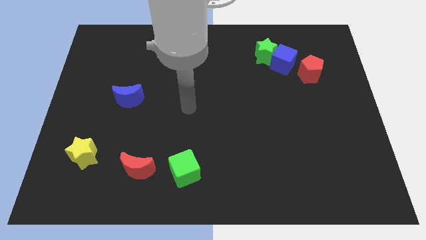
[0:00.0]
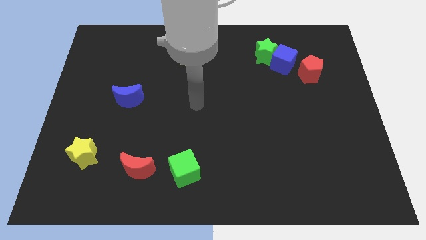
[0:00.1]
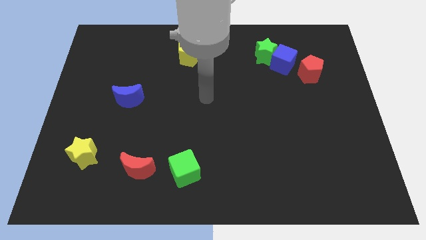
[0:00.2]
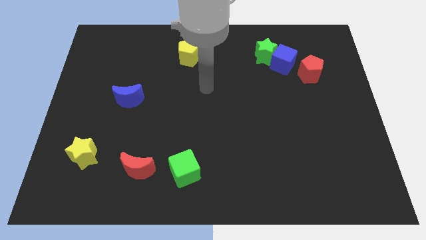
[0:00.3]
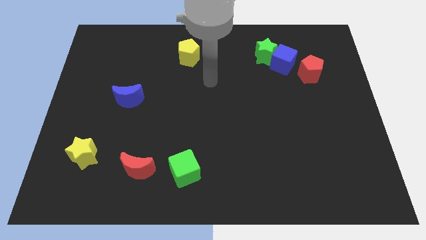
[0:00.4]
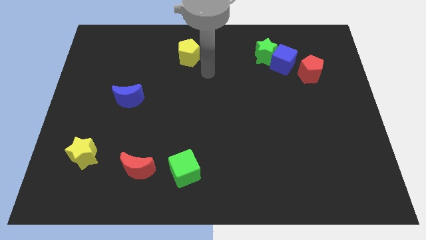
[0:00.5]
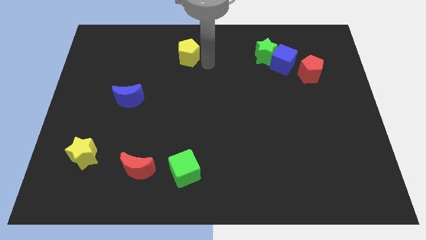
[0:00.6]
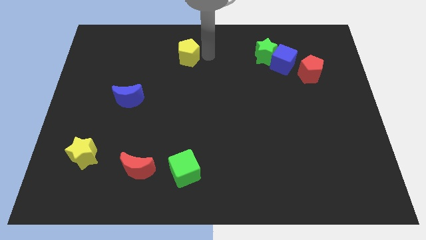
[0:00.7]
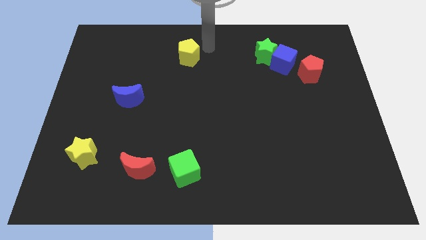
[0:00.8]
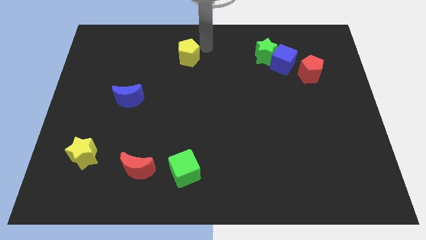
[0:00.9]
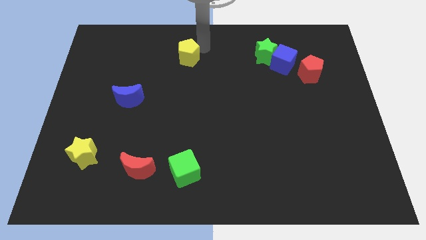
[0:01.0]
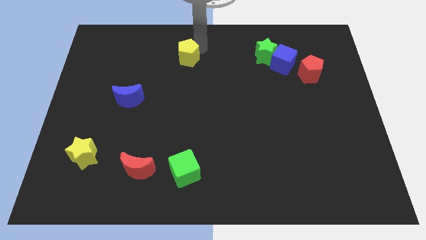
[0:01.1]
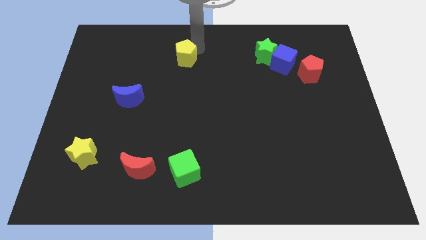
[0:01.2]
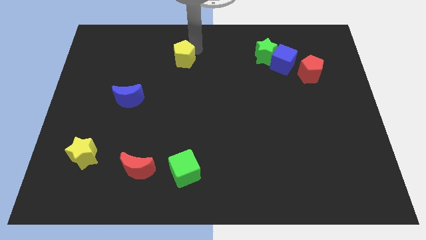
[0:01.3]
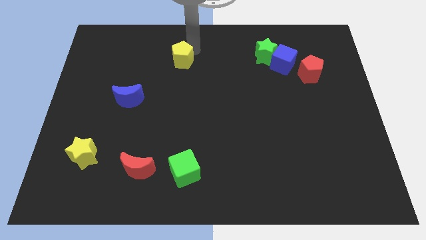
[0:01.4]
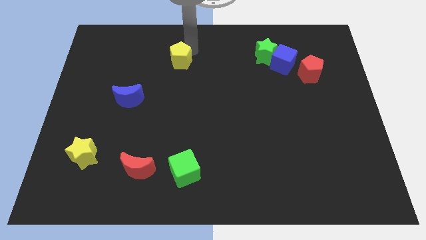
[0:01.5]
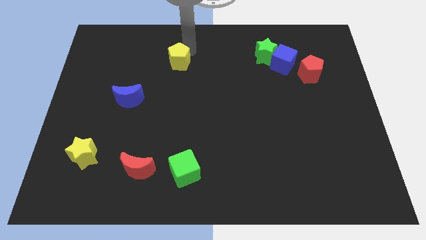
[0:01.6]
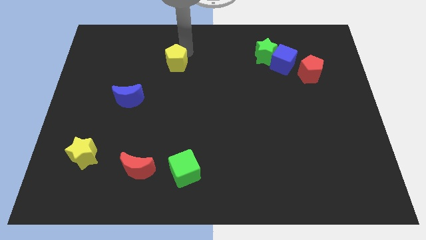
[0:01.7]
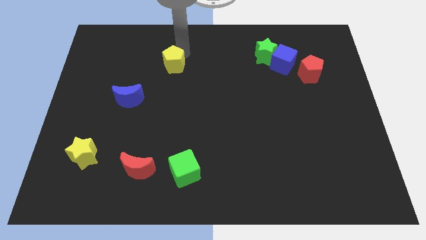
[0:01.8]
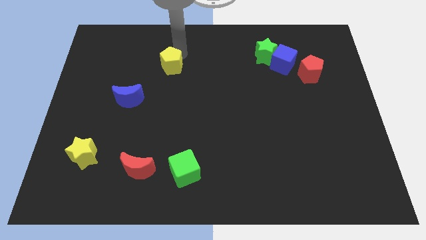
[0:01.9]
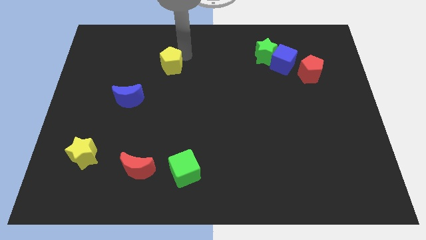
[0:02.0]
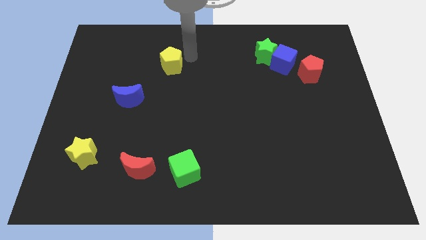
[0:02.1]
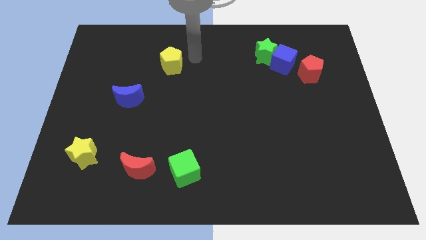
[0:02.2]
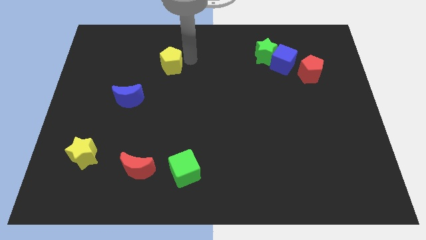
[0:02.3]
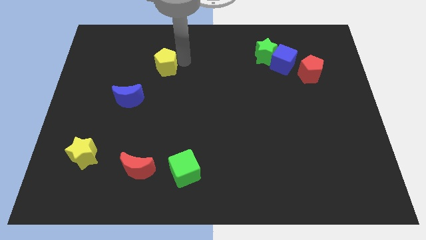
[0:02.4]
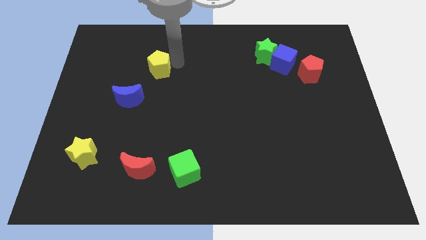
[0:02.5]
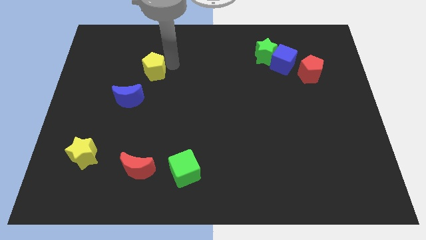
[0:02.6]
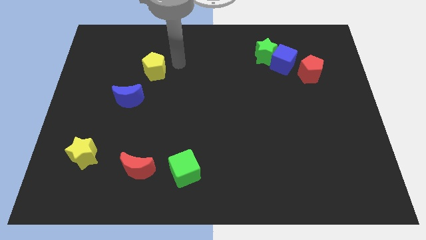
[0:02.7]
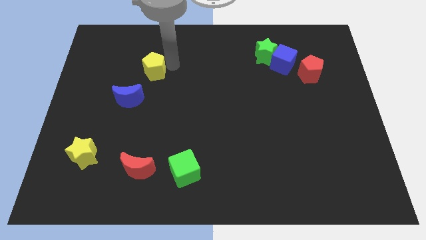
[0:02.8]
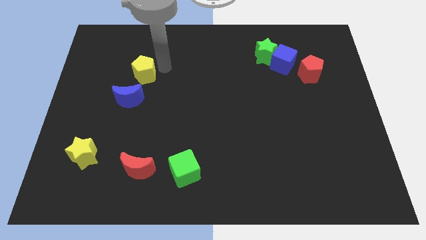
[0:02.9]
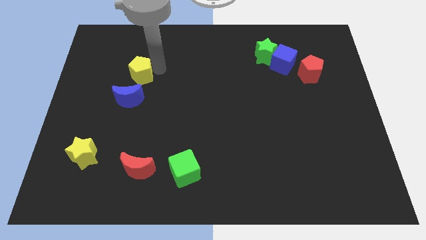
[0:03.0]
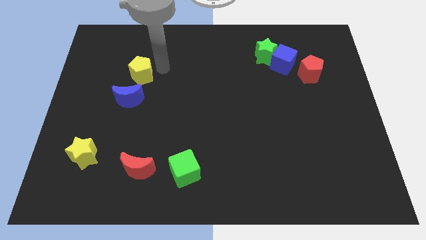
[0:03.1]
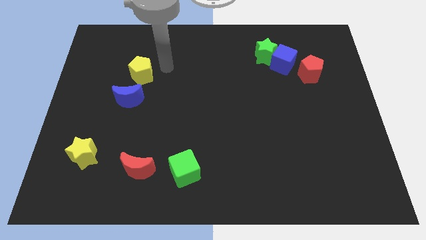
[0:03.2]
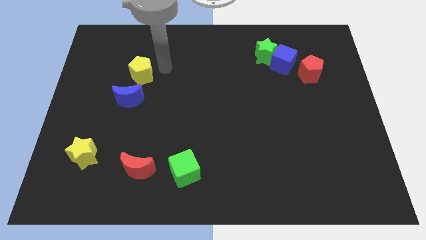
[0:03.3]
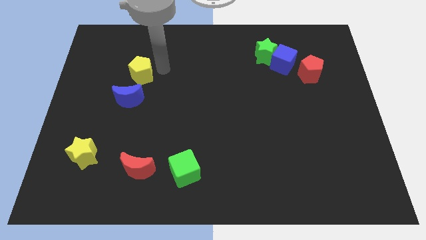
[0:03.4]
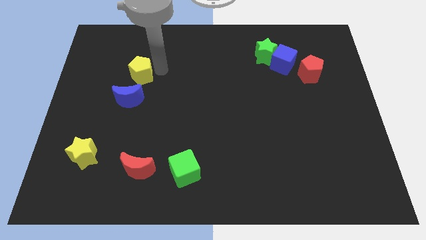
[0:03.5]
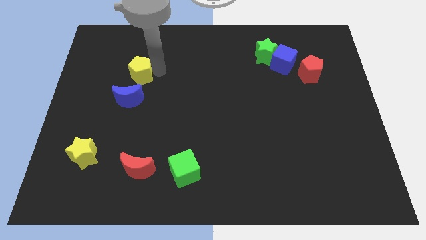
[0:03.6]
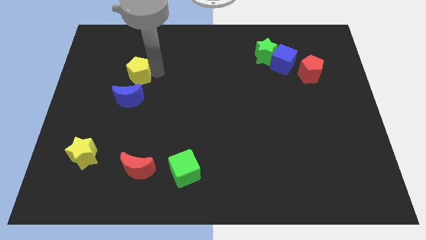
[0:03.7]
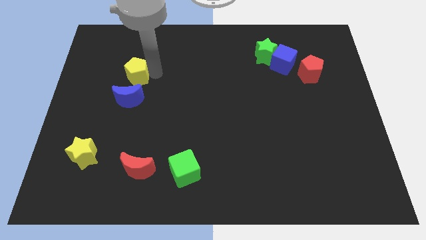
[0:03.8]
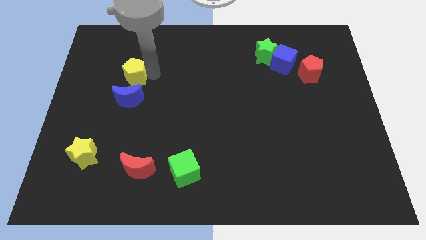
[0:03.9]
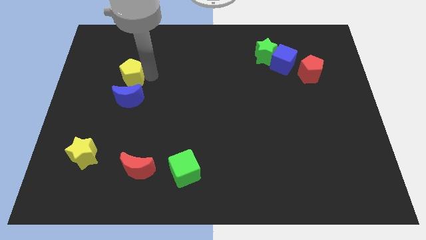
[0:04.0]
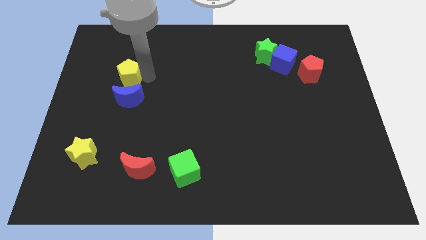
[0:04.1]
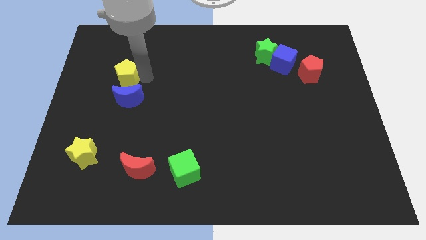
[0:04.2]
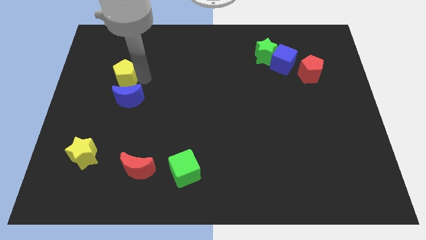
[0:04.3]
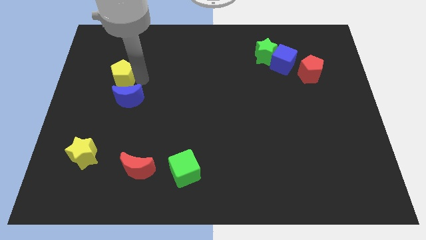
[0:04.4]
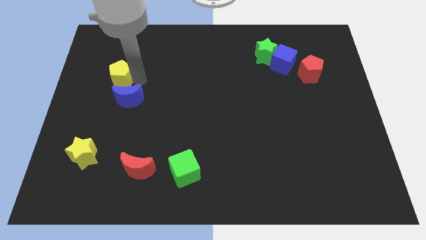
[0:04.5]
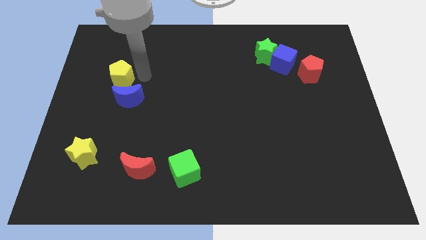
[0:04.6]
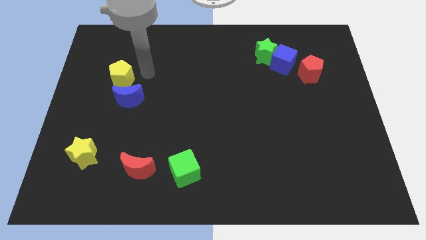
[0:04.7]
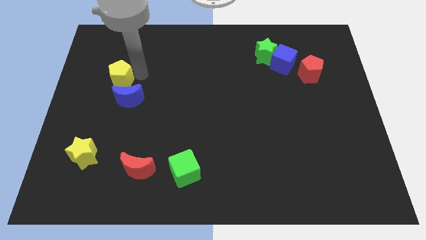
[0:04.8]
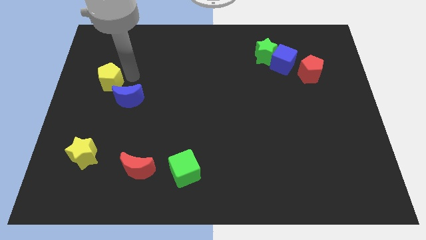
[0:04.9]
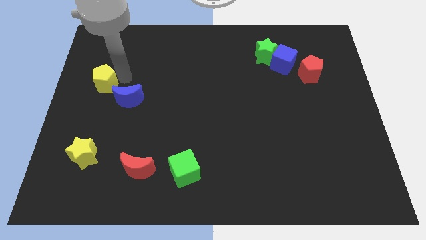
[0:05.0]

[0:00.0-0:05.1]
move the yellow pentagon to the left side of the board
